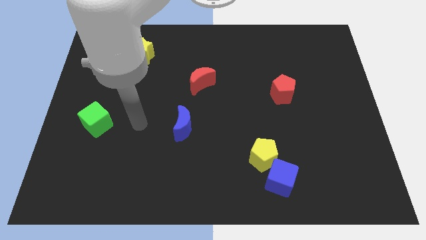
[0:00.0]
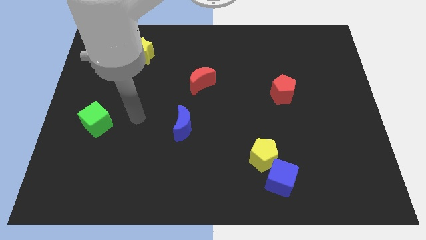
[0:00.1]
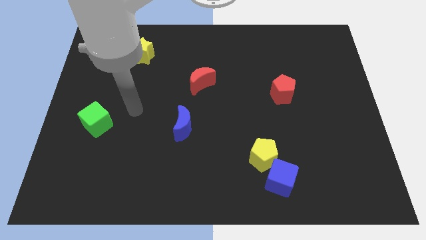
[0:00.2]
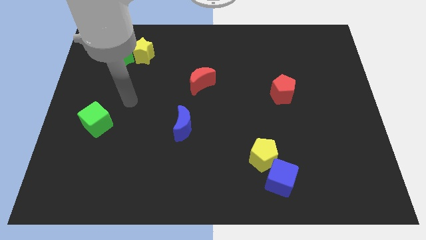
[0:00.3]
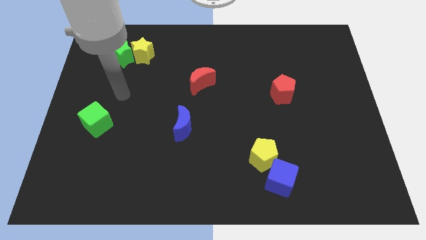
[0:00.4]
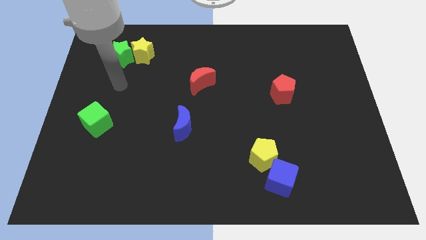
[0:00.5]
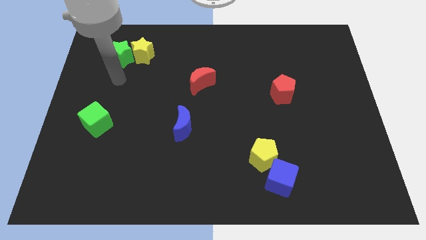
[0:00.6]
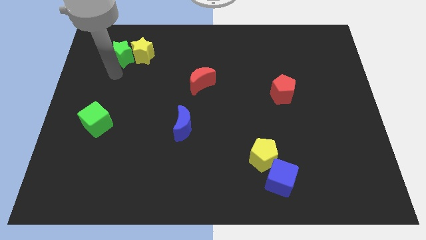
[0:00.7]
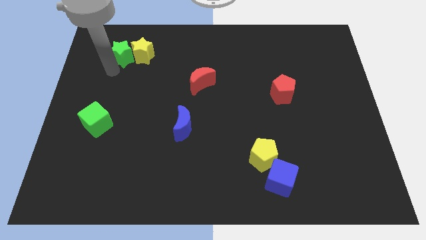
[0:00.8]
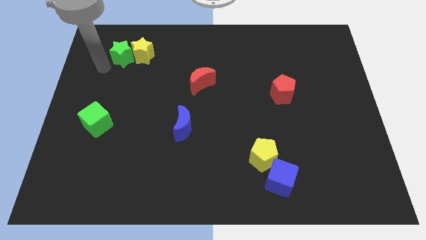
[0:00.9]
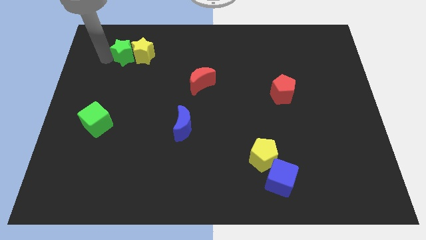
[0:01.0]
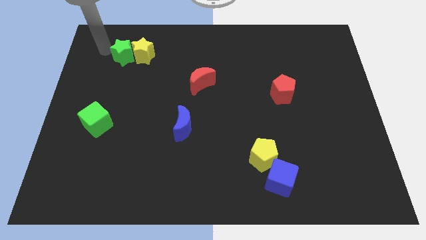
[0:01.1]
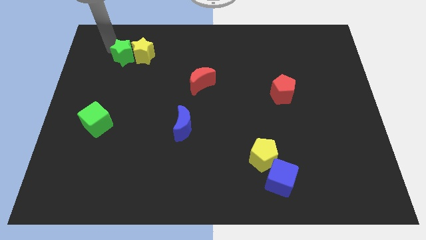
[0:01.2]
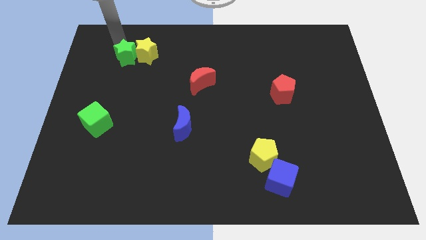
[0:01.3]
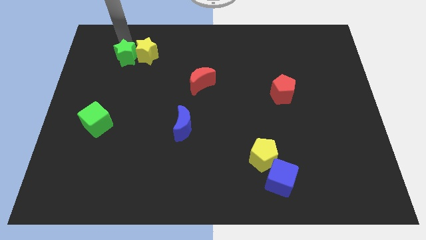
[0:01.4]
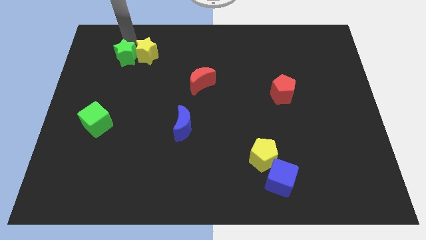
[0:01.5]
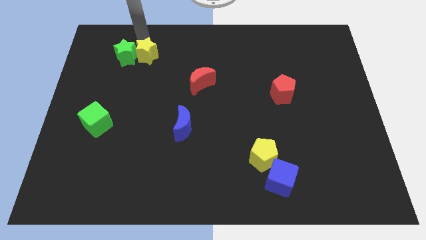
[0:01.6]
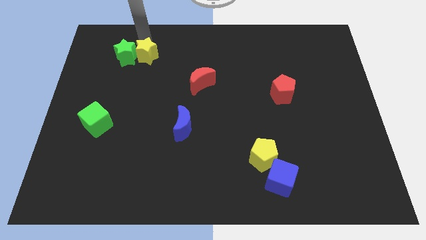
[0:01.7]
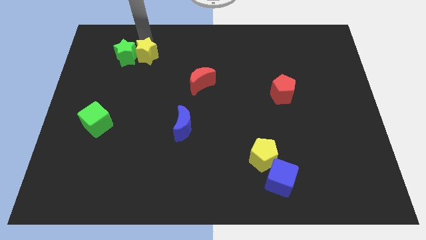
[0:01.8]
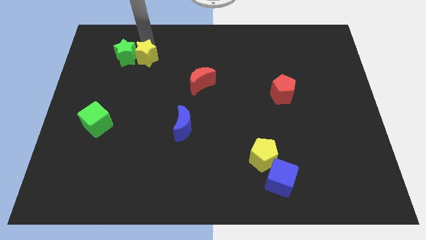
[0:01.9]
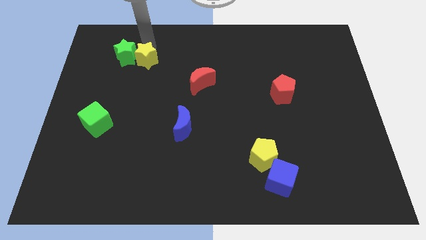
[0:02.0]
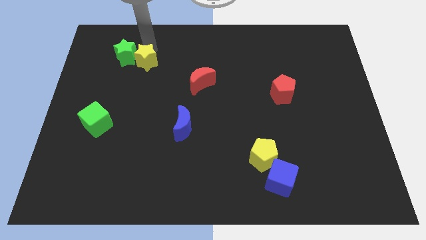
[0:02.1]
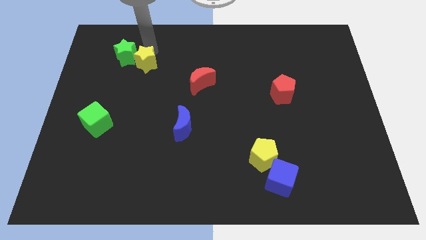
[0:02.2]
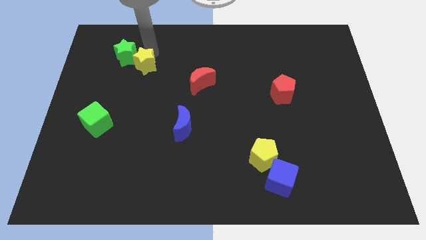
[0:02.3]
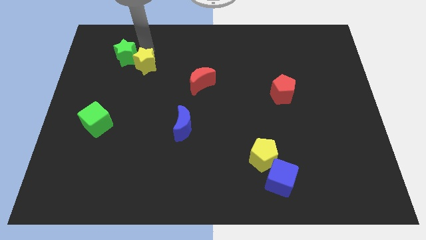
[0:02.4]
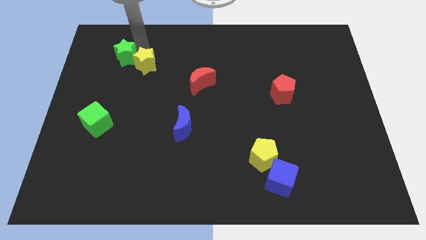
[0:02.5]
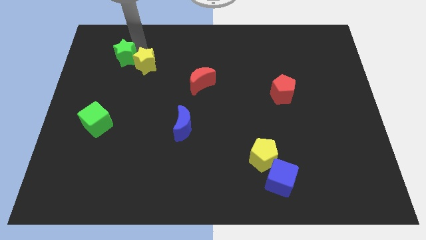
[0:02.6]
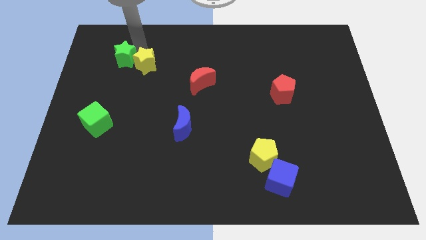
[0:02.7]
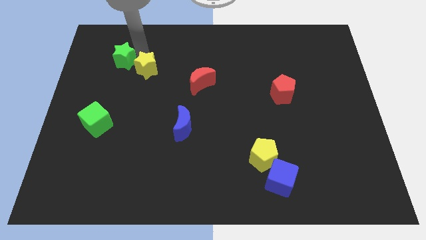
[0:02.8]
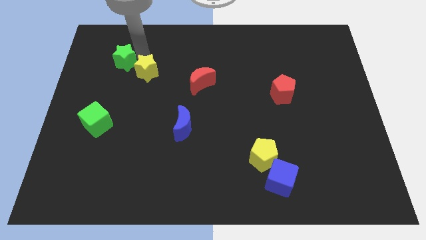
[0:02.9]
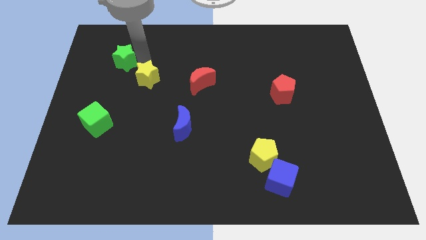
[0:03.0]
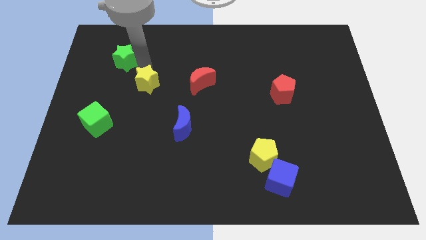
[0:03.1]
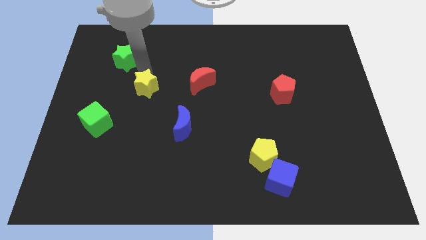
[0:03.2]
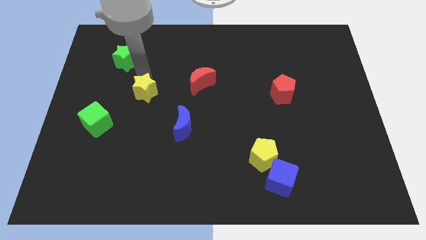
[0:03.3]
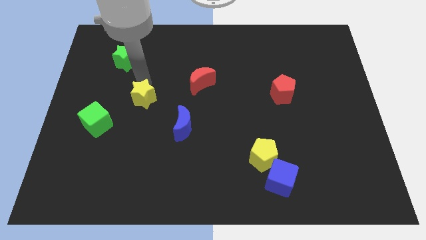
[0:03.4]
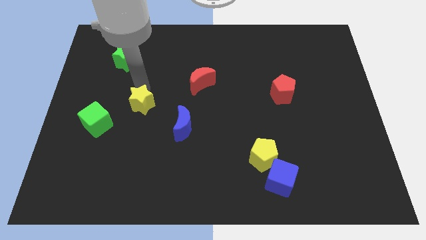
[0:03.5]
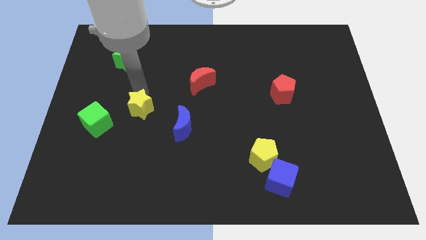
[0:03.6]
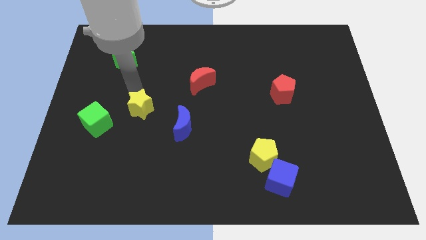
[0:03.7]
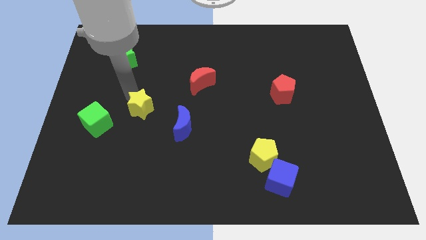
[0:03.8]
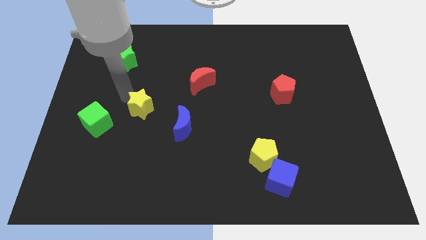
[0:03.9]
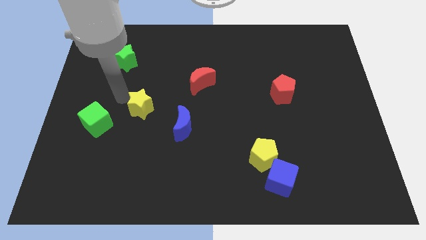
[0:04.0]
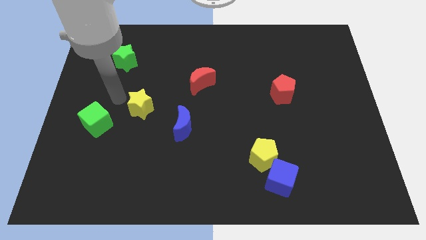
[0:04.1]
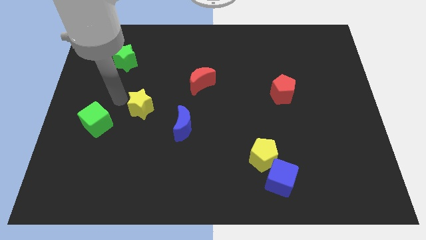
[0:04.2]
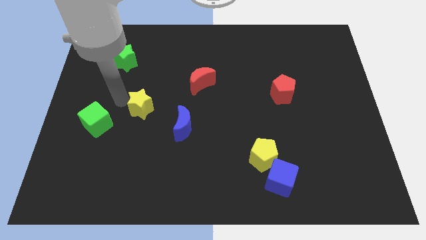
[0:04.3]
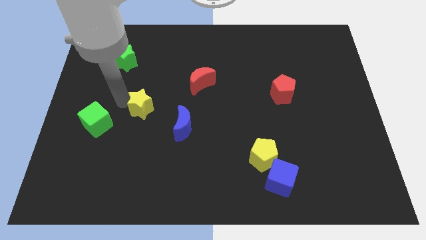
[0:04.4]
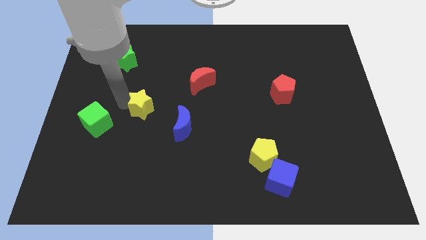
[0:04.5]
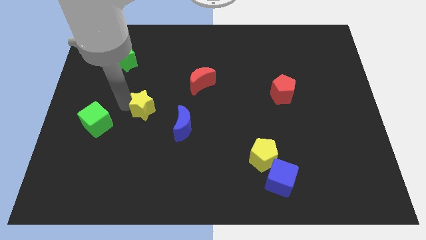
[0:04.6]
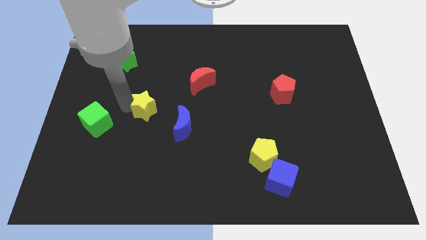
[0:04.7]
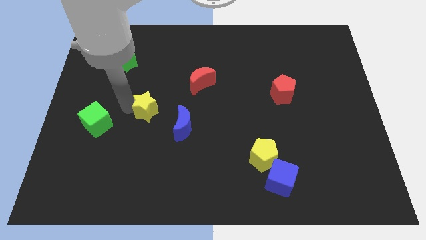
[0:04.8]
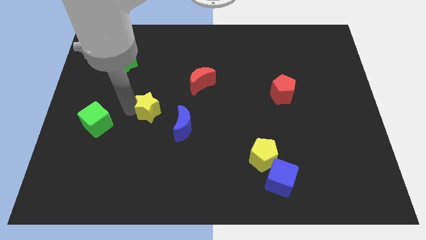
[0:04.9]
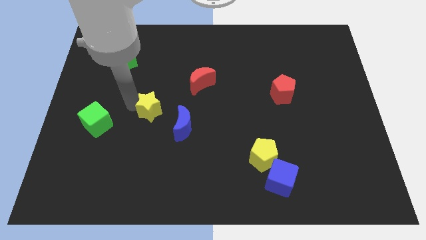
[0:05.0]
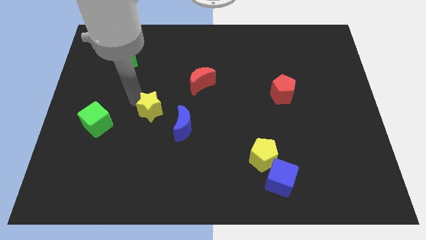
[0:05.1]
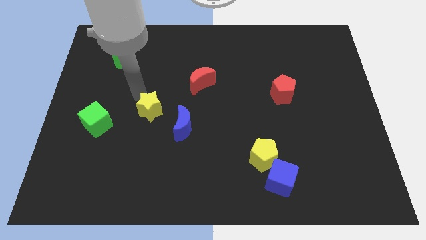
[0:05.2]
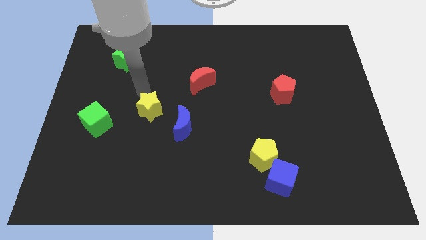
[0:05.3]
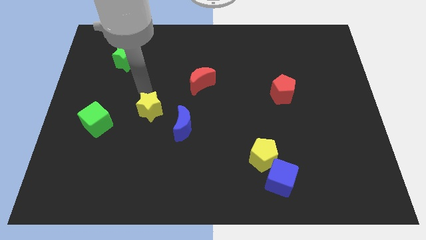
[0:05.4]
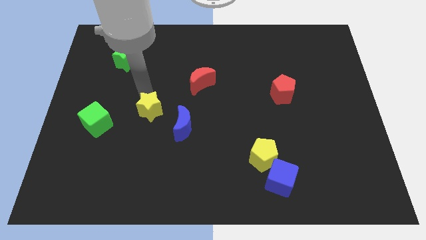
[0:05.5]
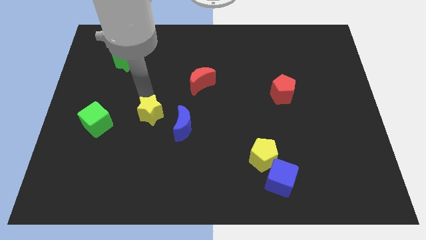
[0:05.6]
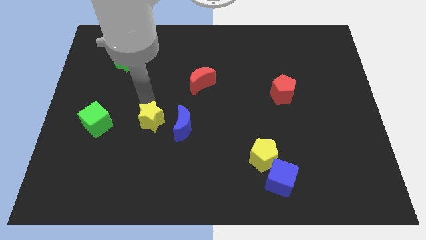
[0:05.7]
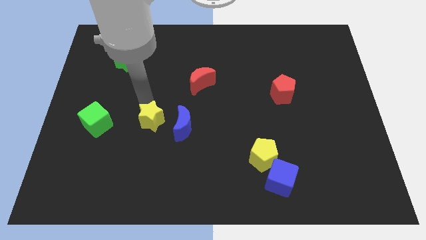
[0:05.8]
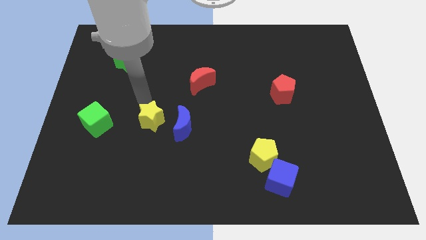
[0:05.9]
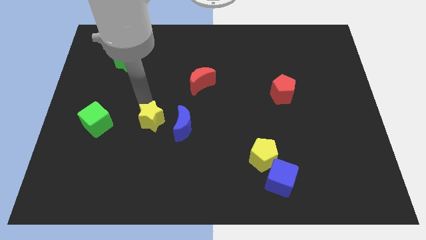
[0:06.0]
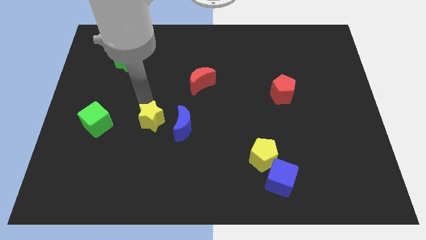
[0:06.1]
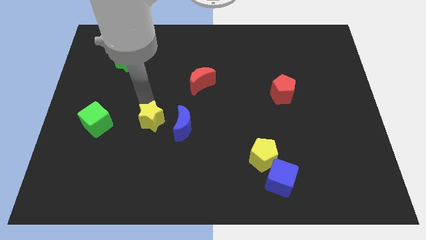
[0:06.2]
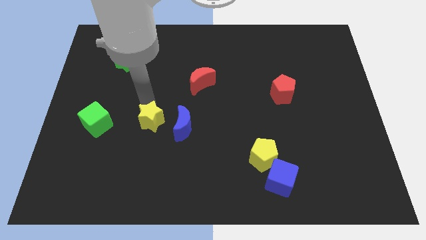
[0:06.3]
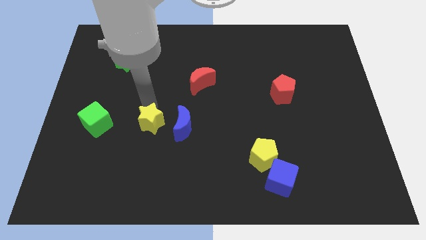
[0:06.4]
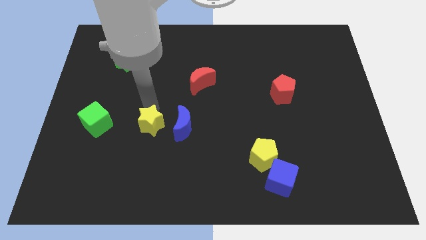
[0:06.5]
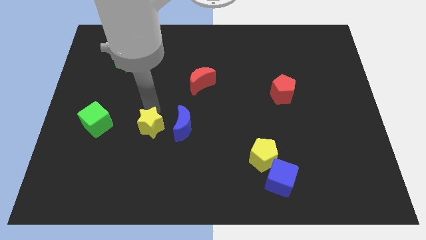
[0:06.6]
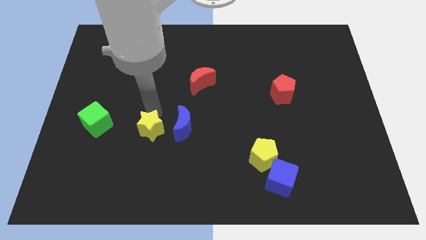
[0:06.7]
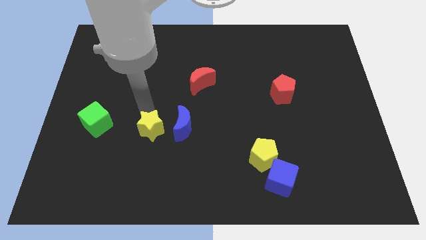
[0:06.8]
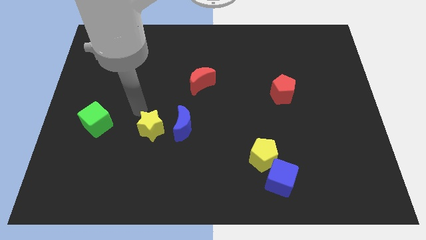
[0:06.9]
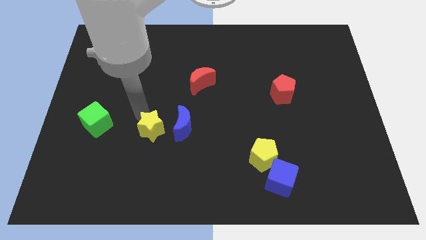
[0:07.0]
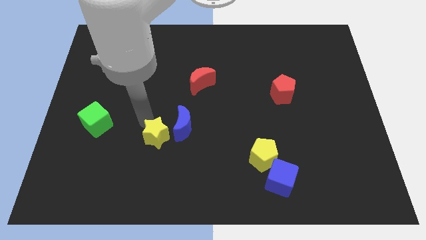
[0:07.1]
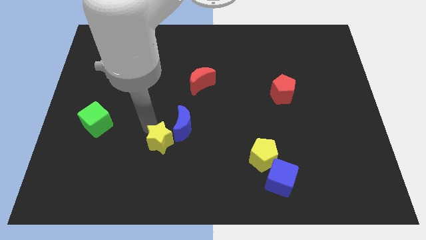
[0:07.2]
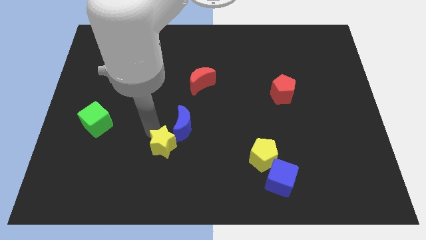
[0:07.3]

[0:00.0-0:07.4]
slide the yellow star to the bottom side of the blue moon

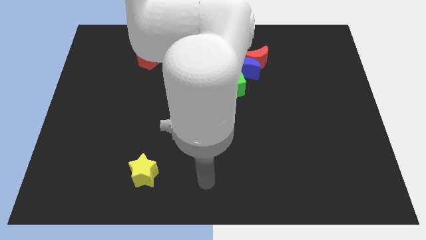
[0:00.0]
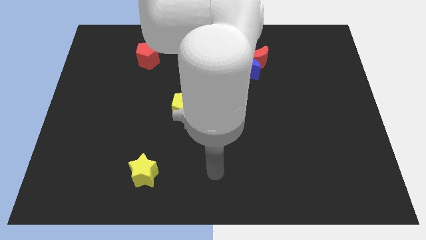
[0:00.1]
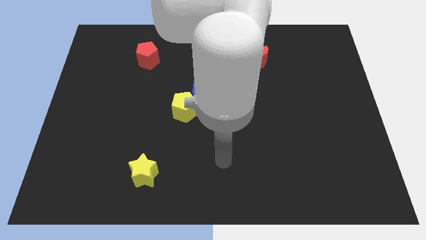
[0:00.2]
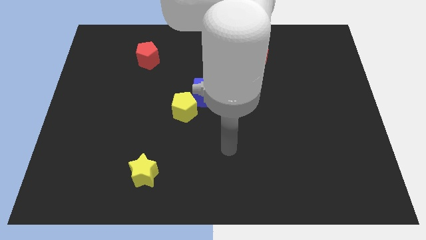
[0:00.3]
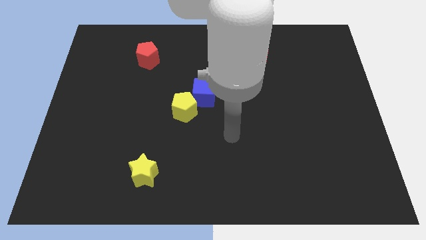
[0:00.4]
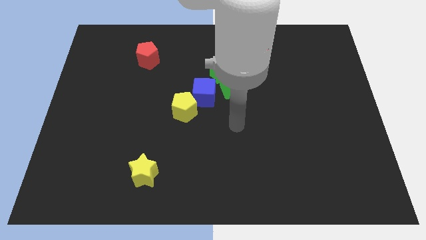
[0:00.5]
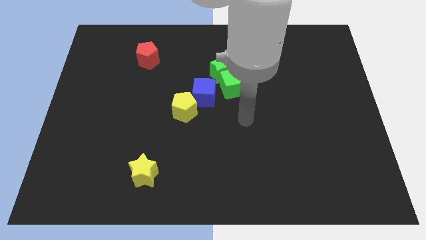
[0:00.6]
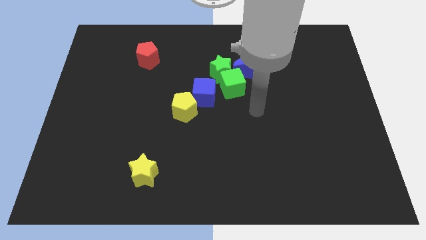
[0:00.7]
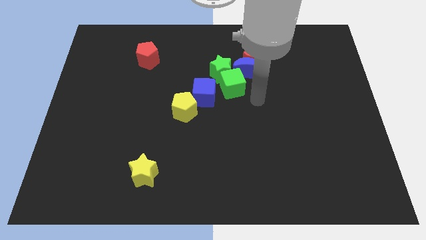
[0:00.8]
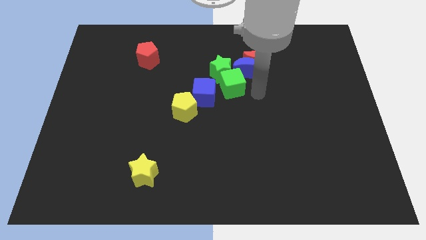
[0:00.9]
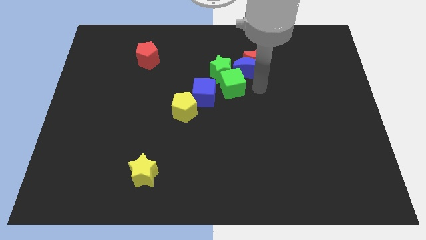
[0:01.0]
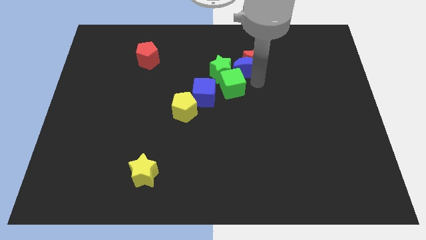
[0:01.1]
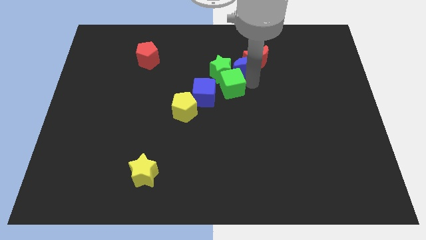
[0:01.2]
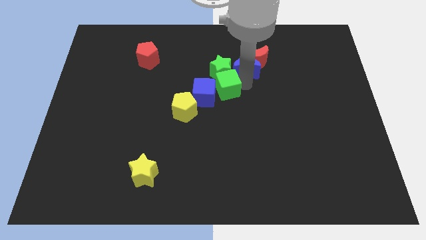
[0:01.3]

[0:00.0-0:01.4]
push the green cube to the top right side of the yellow pentagon
